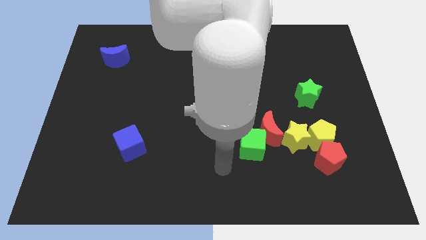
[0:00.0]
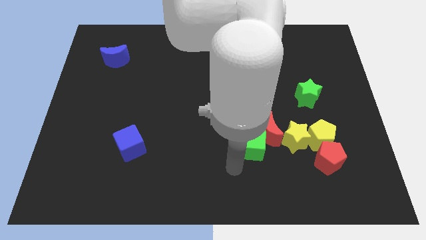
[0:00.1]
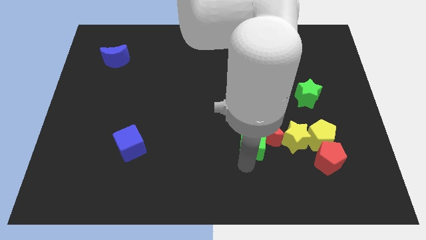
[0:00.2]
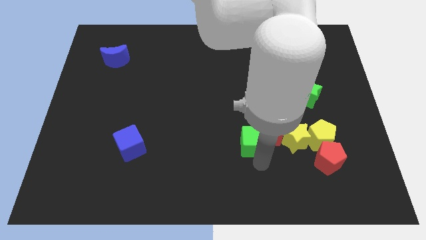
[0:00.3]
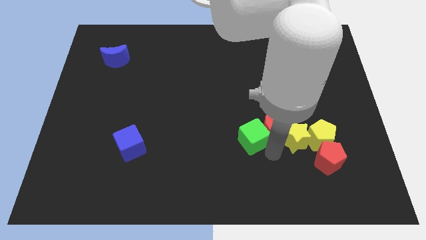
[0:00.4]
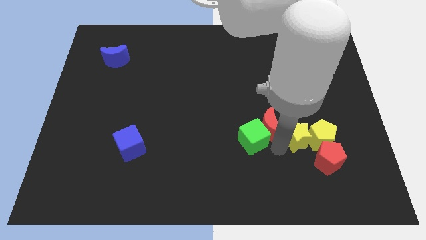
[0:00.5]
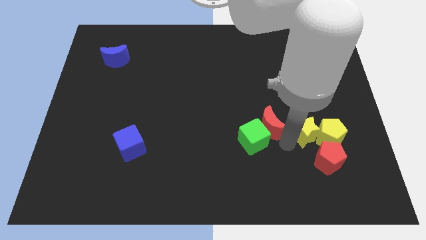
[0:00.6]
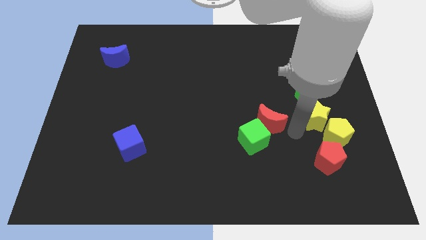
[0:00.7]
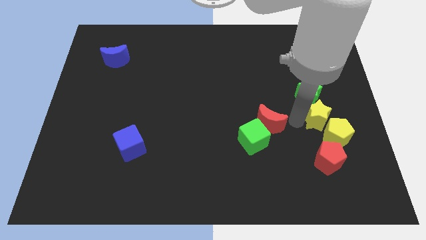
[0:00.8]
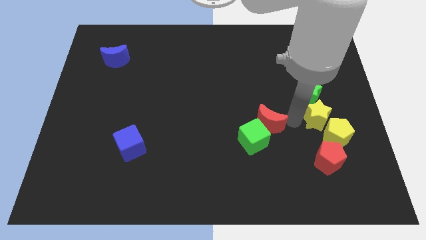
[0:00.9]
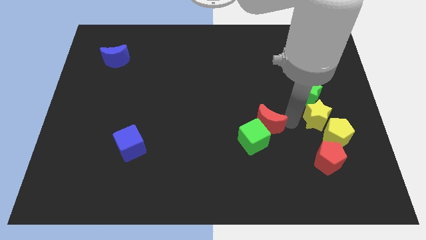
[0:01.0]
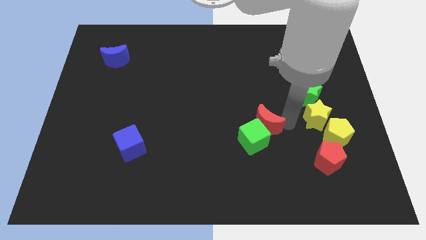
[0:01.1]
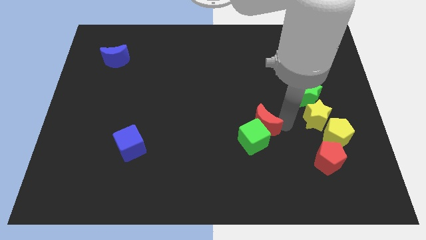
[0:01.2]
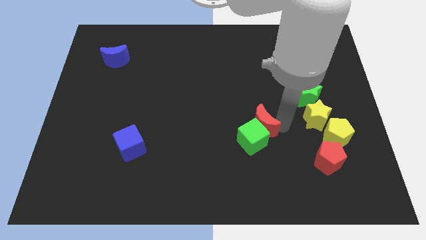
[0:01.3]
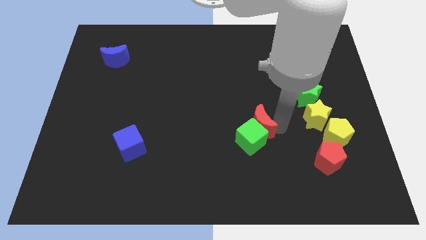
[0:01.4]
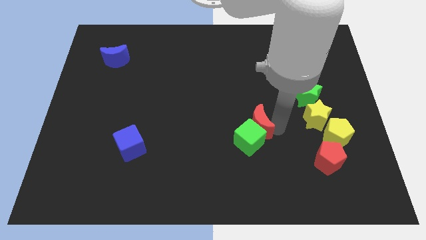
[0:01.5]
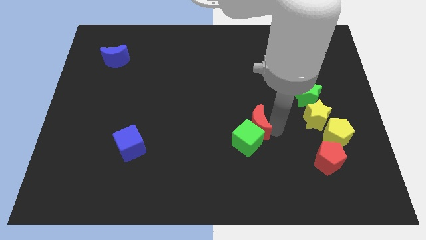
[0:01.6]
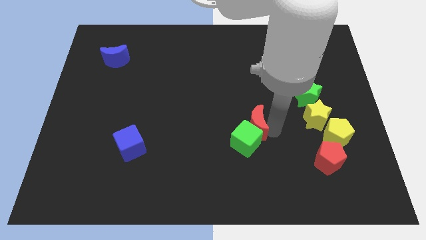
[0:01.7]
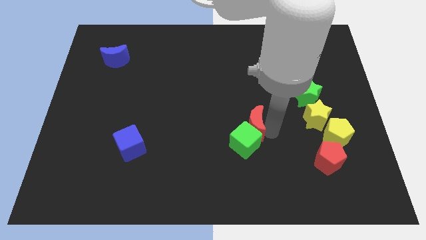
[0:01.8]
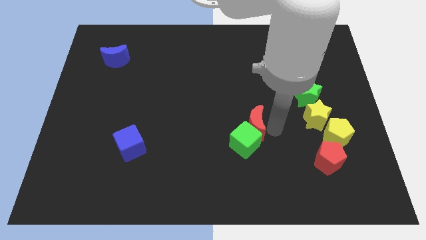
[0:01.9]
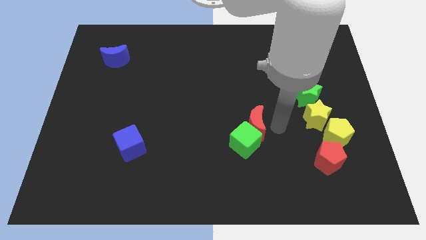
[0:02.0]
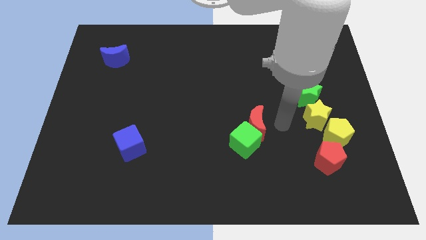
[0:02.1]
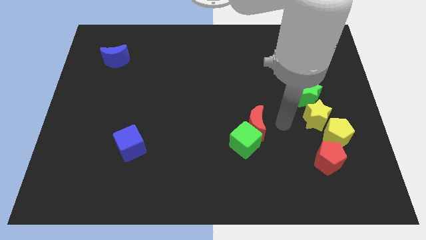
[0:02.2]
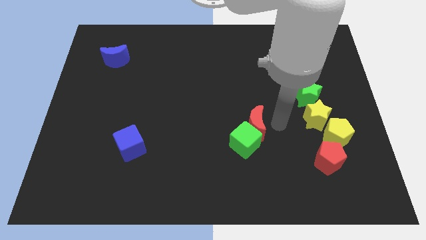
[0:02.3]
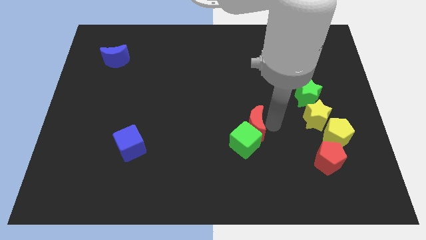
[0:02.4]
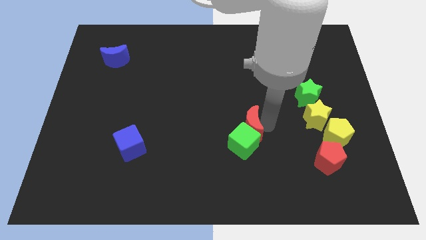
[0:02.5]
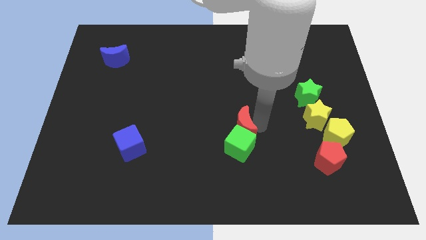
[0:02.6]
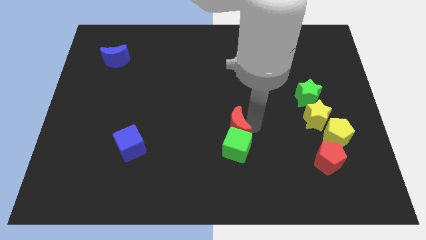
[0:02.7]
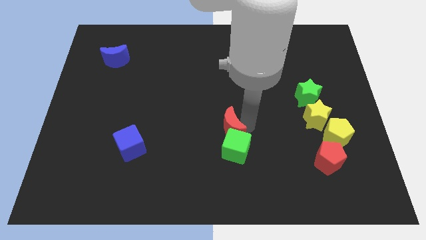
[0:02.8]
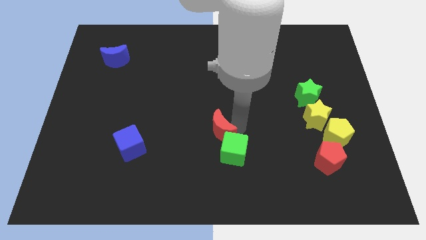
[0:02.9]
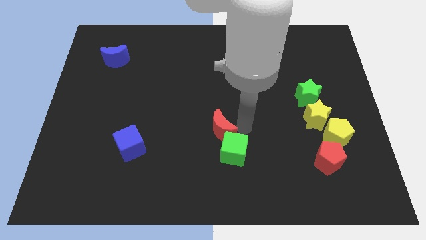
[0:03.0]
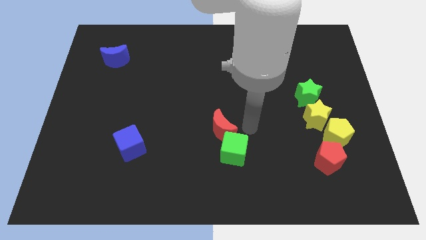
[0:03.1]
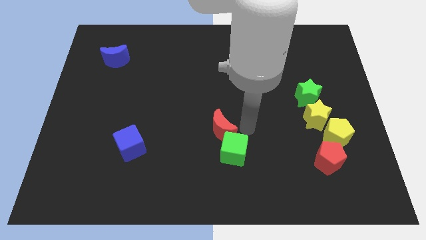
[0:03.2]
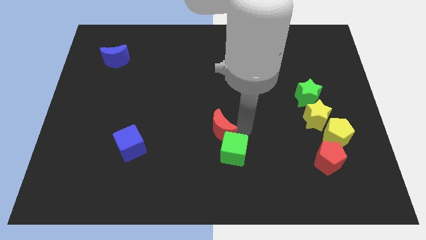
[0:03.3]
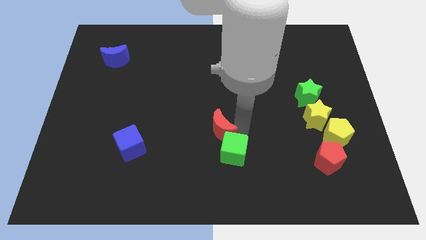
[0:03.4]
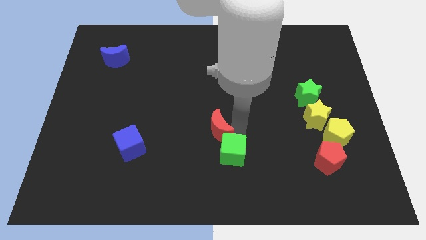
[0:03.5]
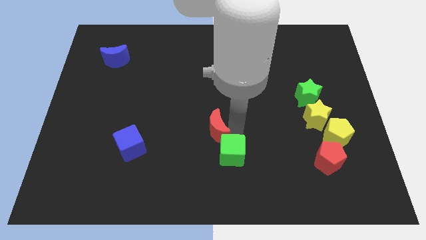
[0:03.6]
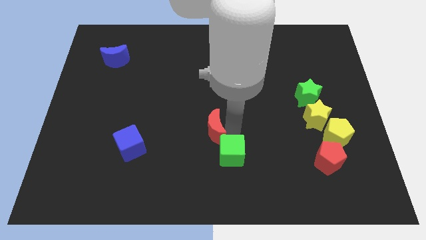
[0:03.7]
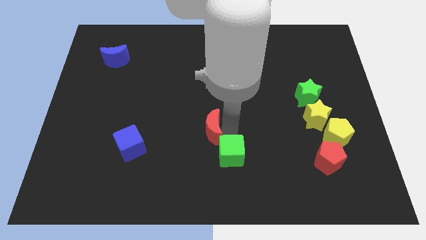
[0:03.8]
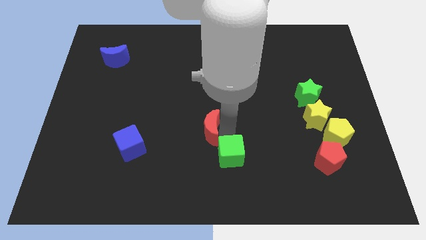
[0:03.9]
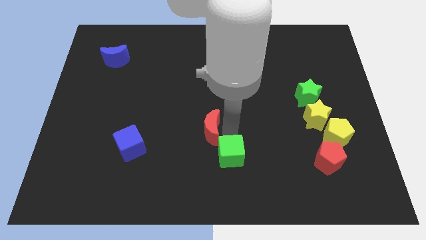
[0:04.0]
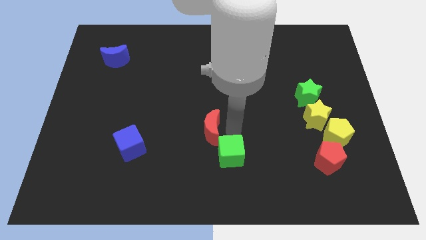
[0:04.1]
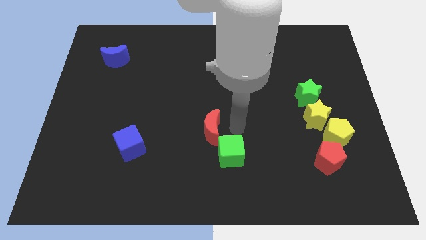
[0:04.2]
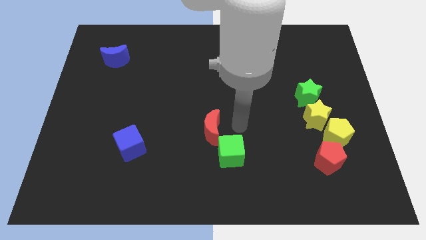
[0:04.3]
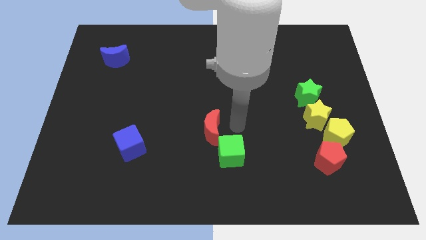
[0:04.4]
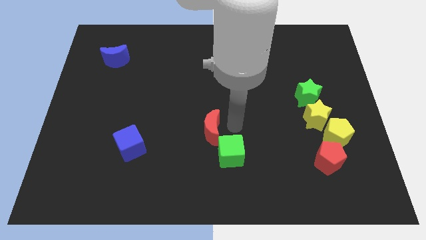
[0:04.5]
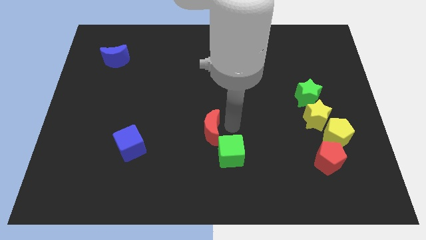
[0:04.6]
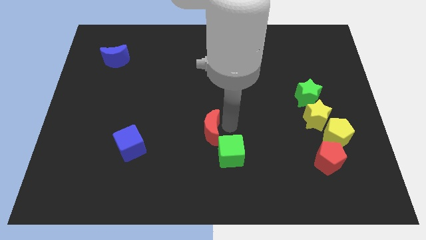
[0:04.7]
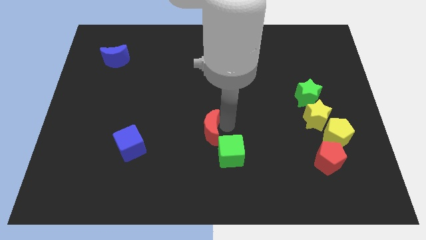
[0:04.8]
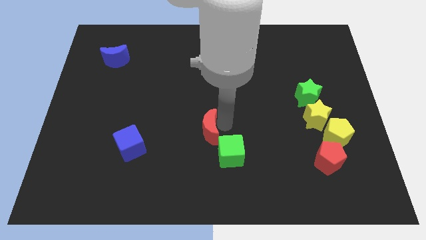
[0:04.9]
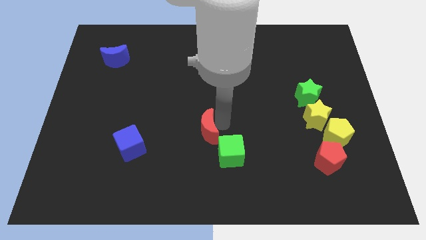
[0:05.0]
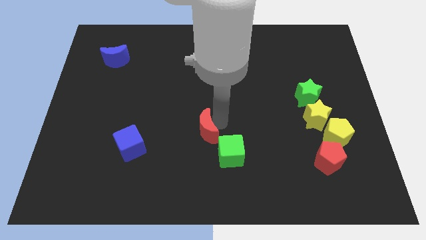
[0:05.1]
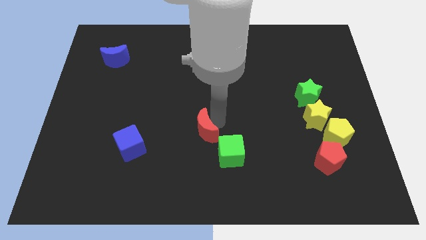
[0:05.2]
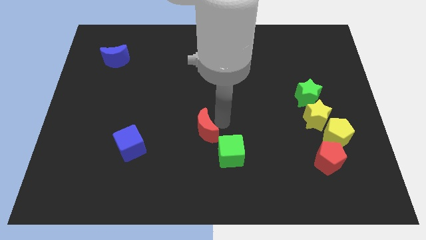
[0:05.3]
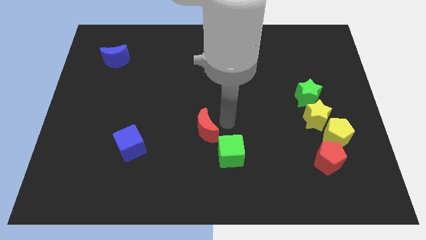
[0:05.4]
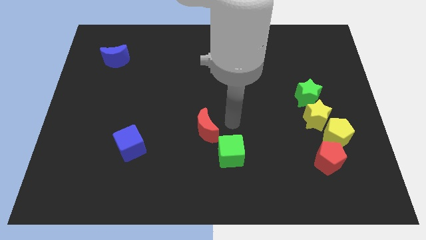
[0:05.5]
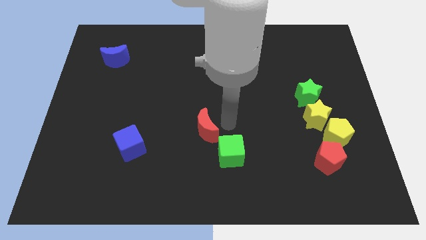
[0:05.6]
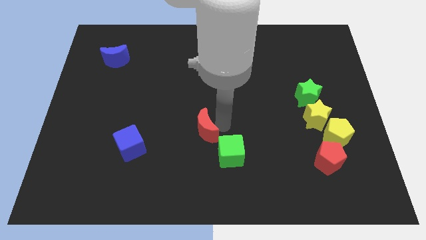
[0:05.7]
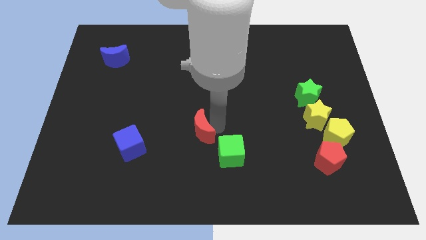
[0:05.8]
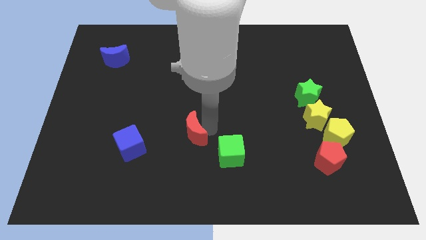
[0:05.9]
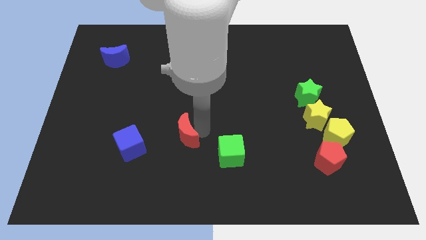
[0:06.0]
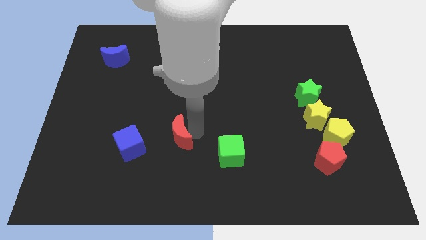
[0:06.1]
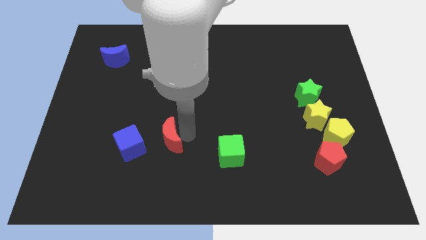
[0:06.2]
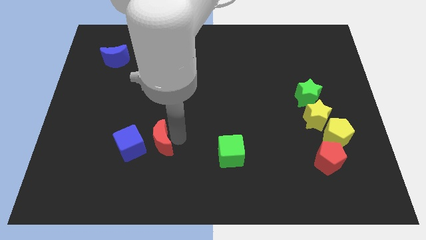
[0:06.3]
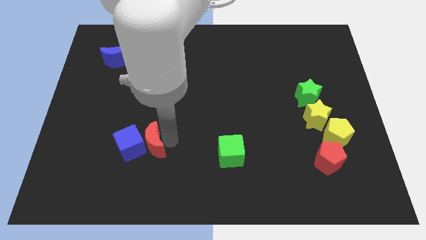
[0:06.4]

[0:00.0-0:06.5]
push the red moon close to the blue cube

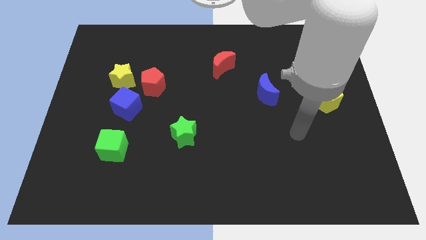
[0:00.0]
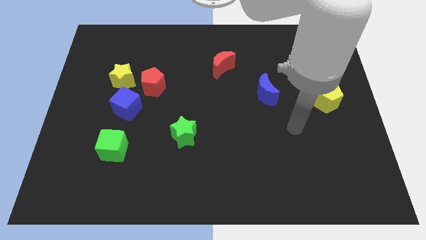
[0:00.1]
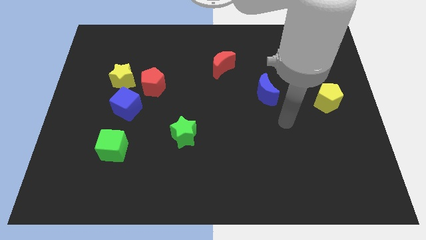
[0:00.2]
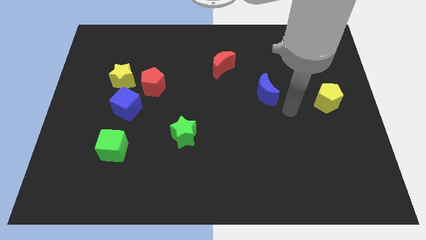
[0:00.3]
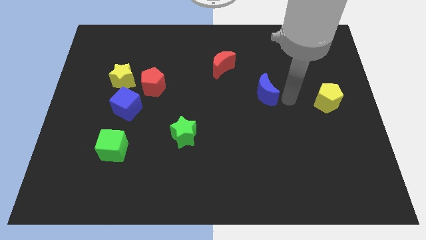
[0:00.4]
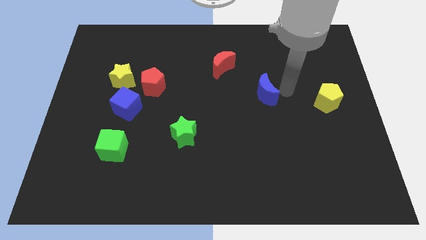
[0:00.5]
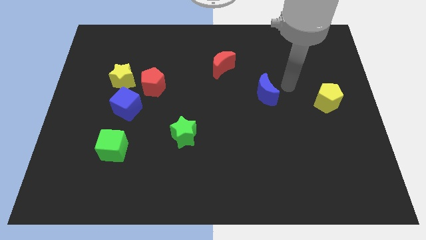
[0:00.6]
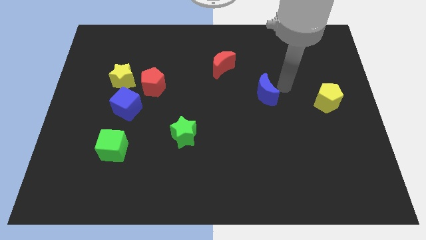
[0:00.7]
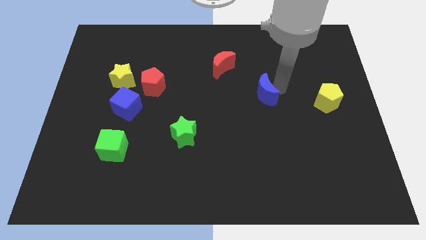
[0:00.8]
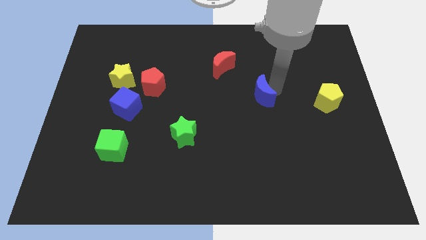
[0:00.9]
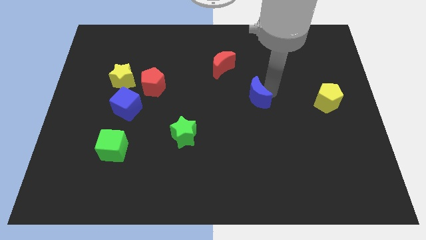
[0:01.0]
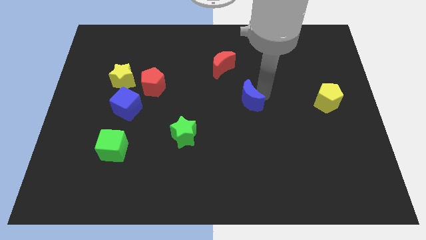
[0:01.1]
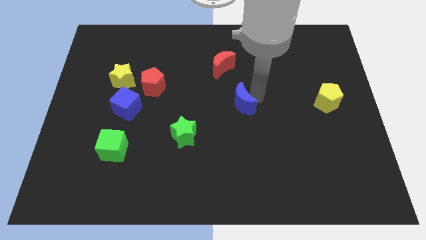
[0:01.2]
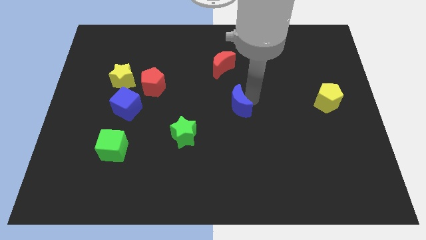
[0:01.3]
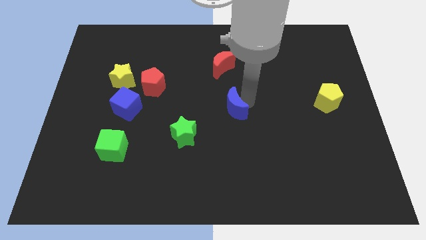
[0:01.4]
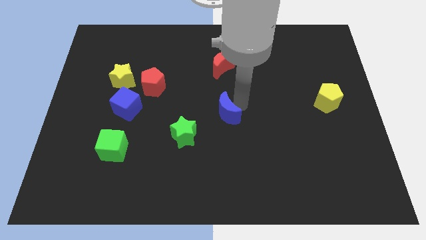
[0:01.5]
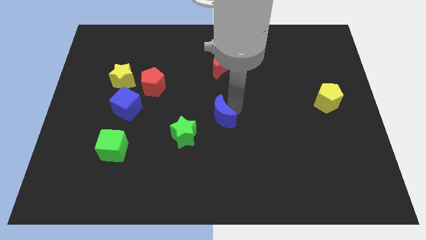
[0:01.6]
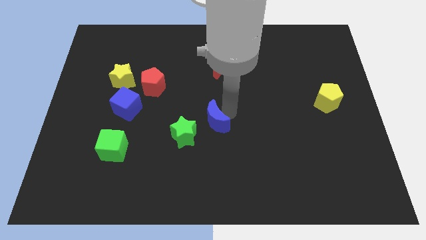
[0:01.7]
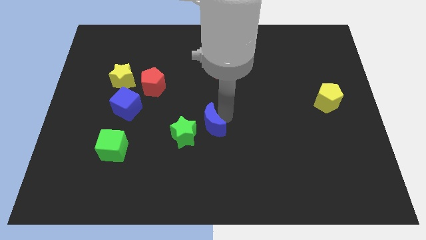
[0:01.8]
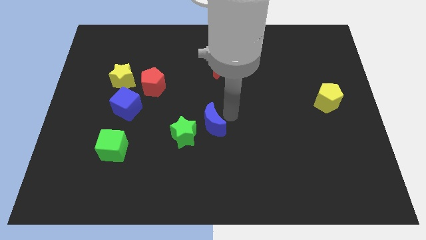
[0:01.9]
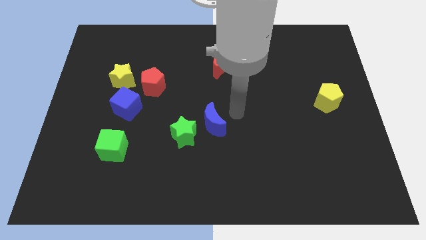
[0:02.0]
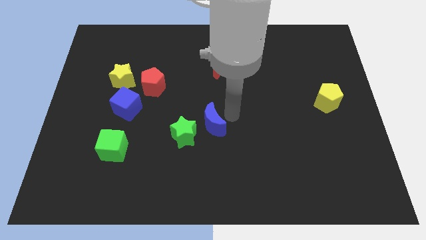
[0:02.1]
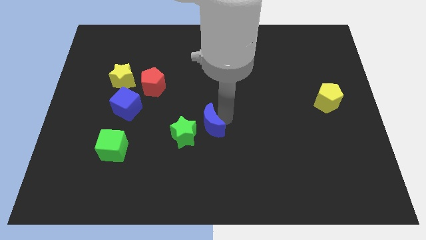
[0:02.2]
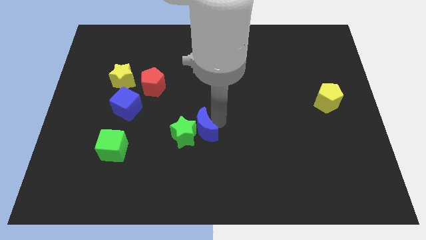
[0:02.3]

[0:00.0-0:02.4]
put the blue moon close to the green star
